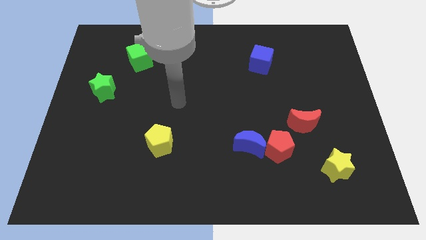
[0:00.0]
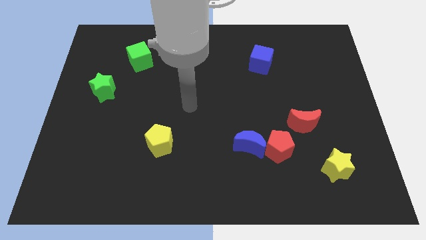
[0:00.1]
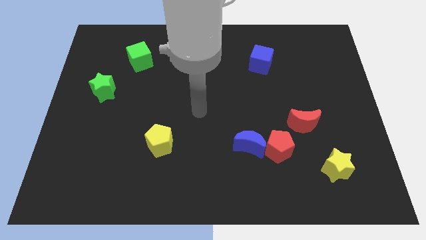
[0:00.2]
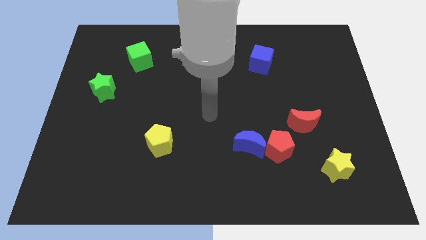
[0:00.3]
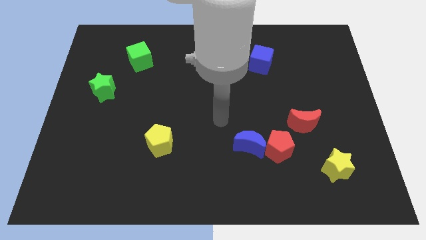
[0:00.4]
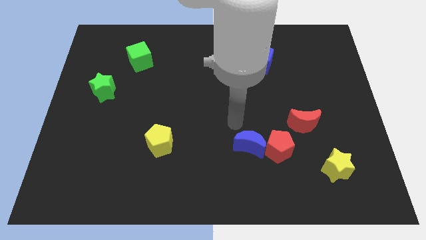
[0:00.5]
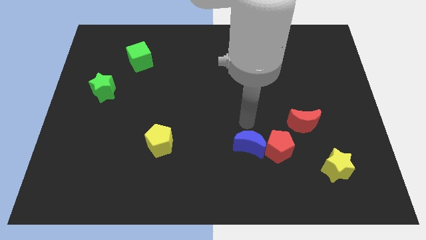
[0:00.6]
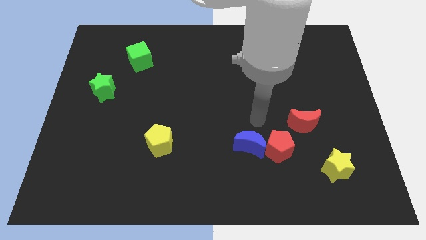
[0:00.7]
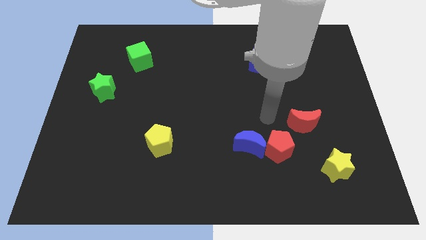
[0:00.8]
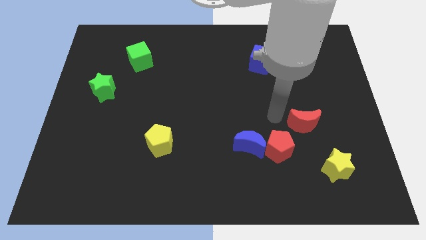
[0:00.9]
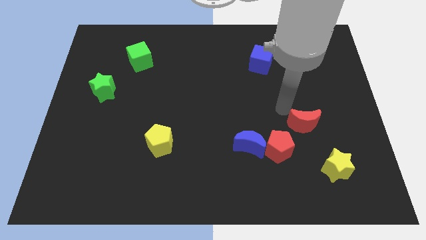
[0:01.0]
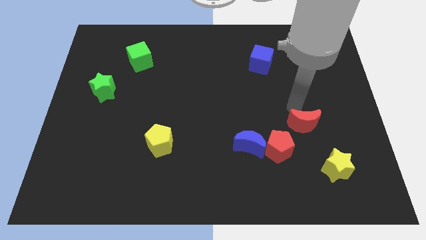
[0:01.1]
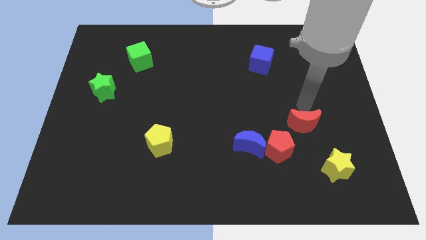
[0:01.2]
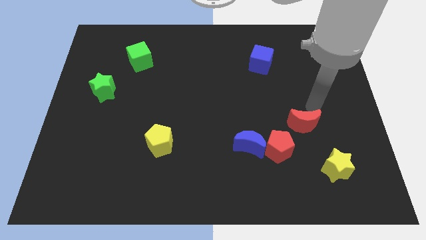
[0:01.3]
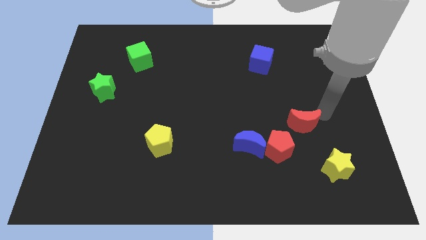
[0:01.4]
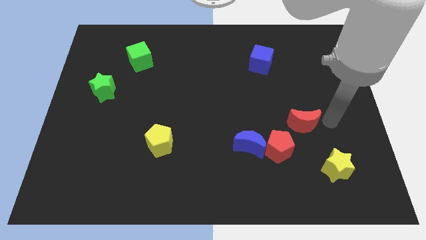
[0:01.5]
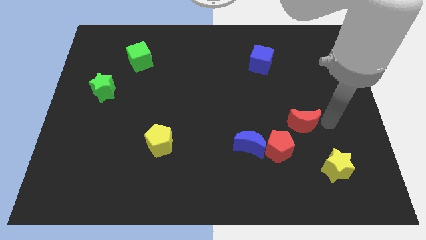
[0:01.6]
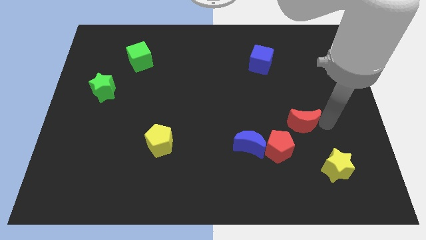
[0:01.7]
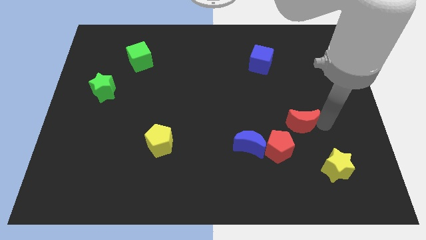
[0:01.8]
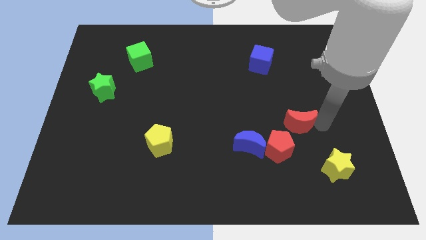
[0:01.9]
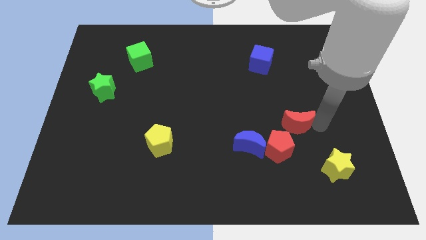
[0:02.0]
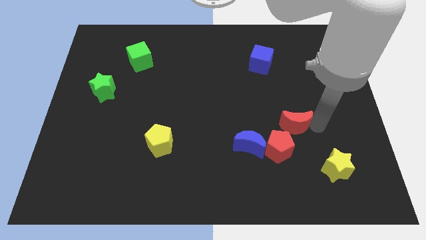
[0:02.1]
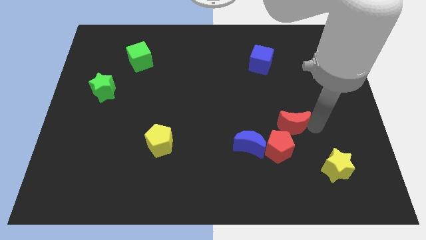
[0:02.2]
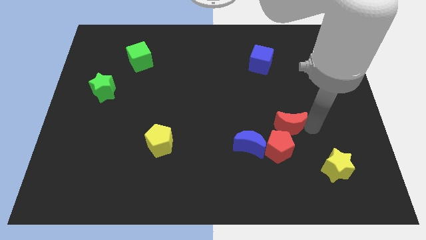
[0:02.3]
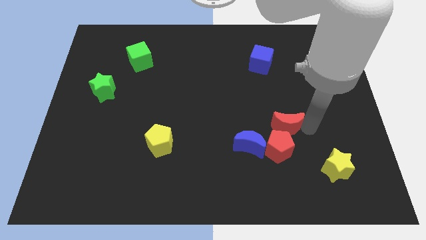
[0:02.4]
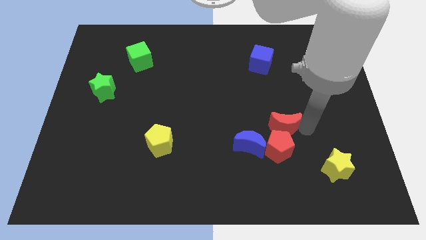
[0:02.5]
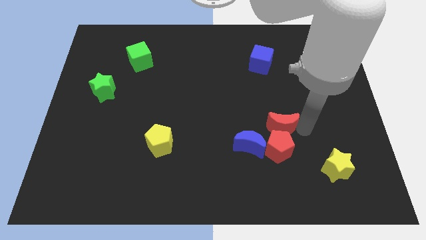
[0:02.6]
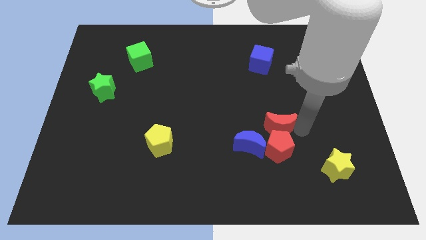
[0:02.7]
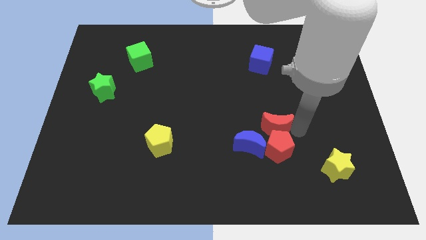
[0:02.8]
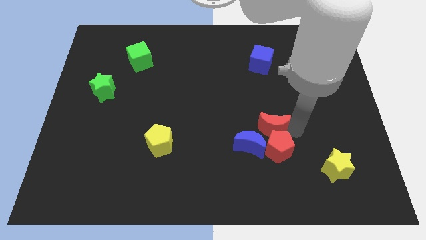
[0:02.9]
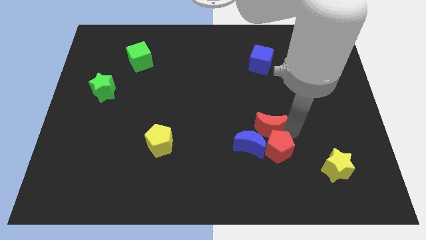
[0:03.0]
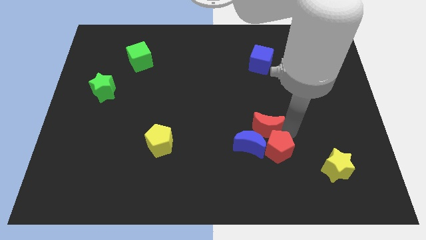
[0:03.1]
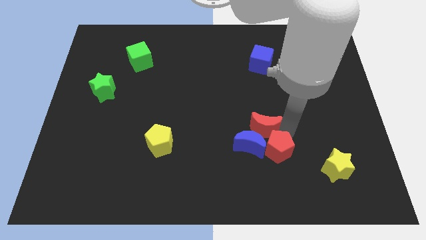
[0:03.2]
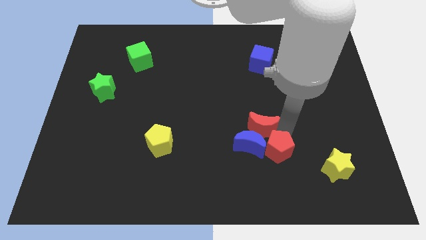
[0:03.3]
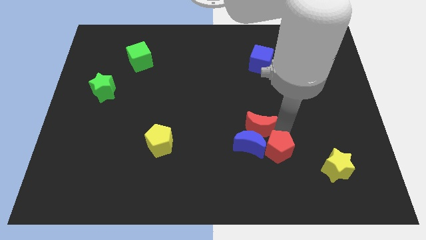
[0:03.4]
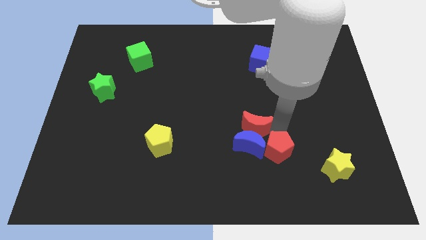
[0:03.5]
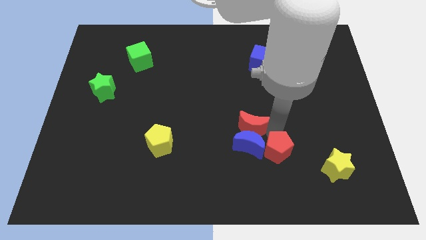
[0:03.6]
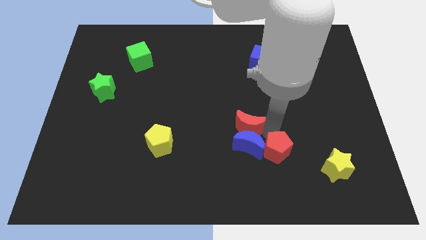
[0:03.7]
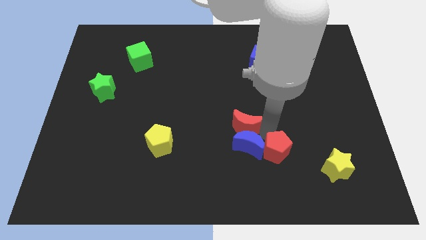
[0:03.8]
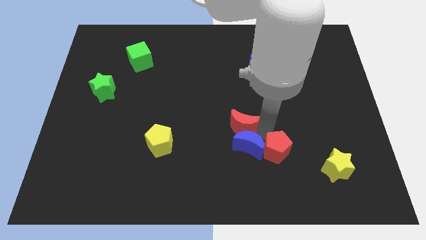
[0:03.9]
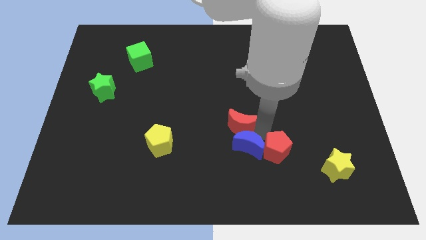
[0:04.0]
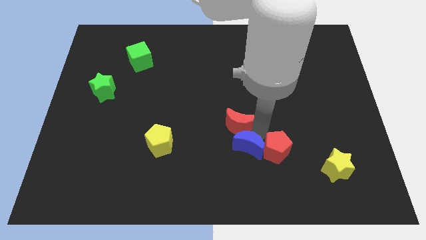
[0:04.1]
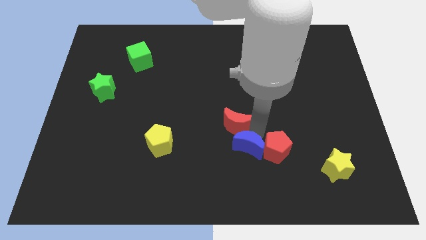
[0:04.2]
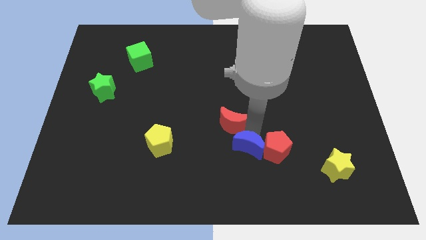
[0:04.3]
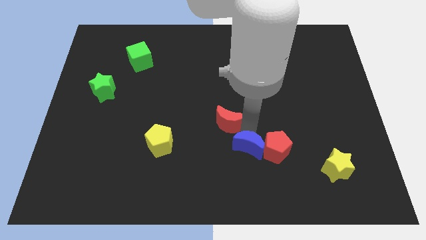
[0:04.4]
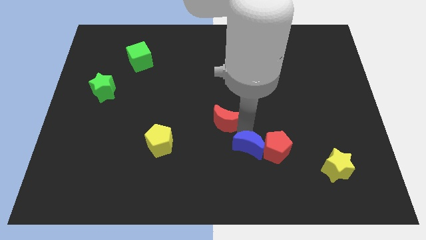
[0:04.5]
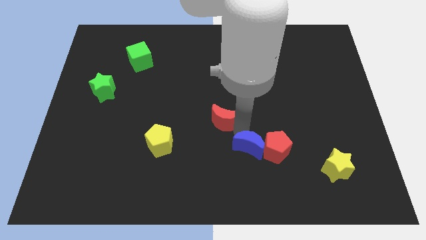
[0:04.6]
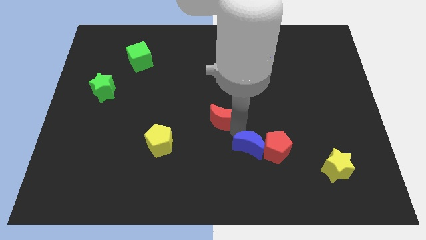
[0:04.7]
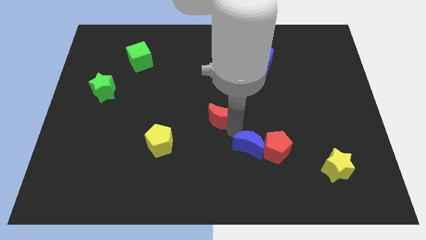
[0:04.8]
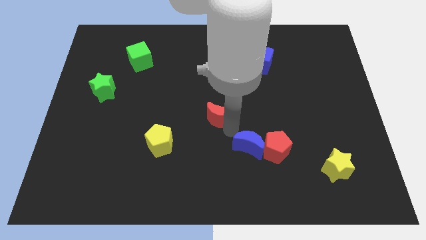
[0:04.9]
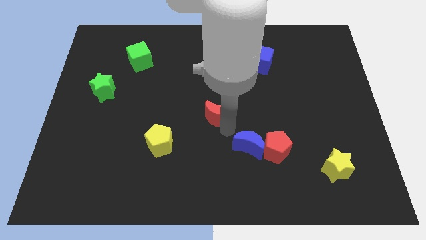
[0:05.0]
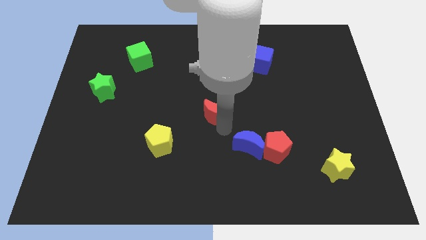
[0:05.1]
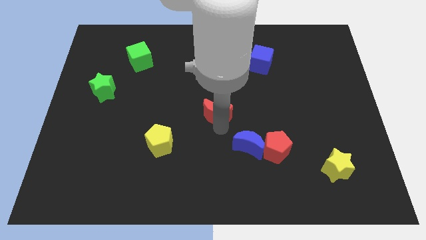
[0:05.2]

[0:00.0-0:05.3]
push the red moon to the left

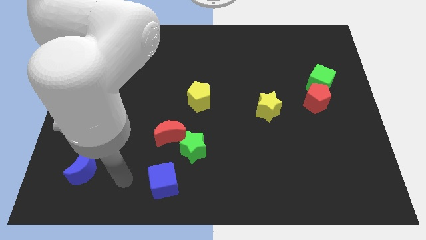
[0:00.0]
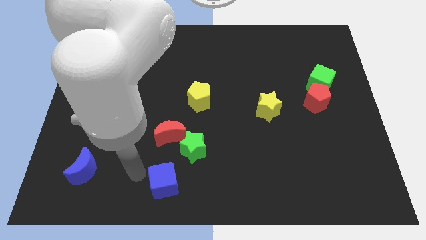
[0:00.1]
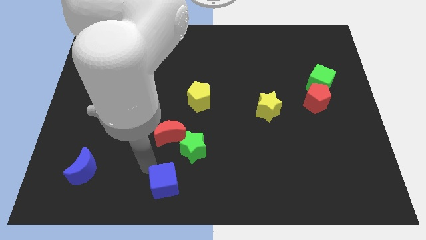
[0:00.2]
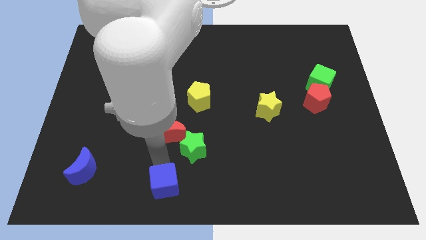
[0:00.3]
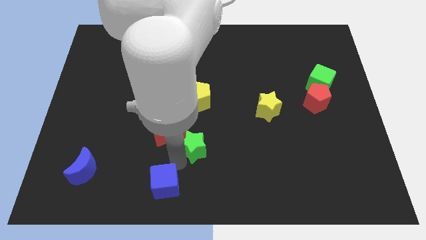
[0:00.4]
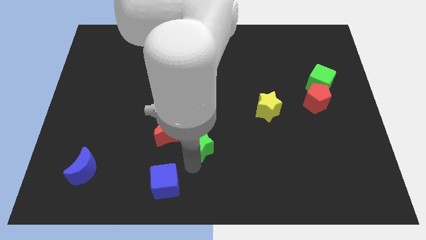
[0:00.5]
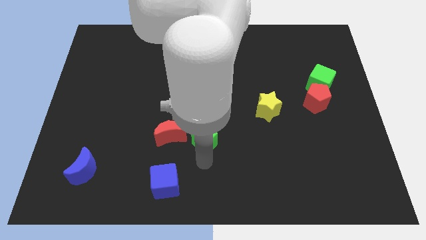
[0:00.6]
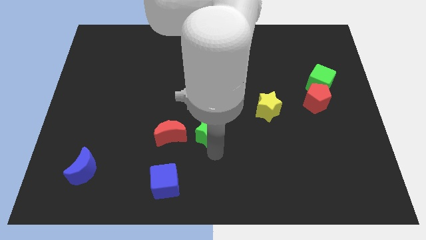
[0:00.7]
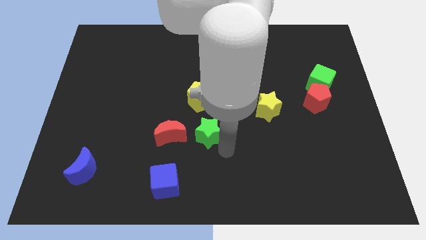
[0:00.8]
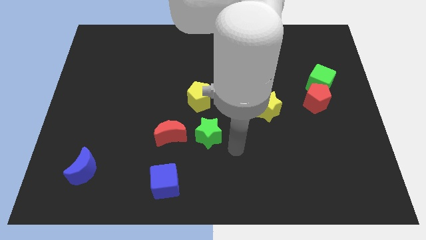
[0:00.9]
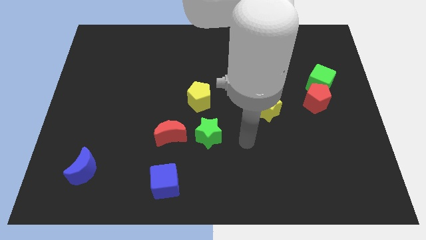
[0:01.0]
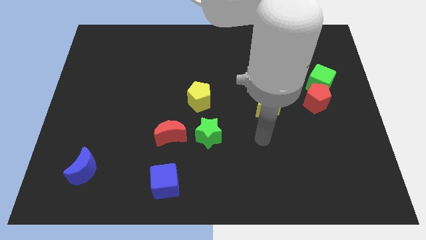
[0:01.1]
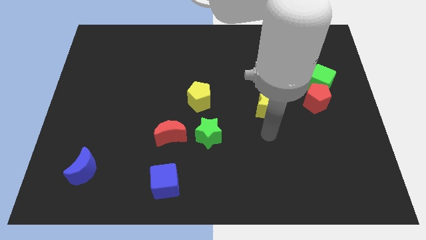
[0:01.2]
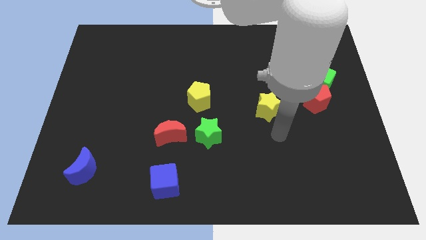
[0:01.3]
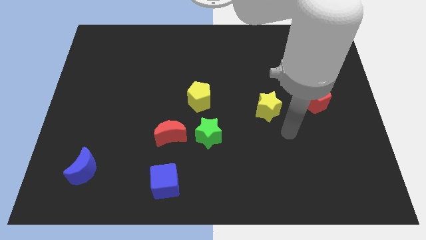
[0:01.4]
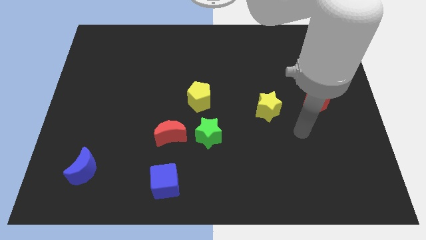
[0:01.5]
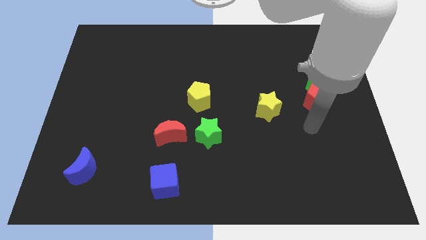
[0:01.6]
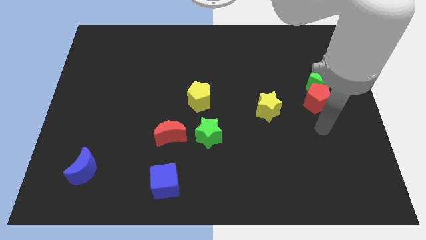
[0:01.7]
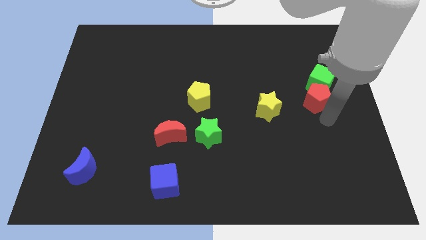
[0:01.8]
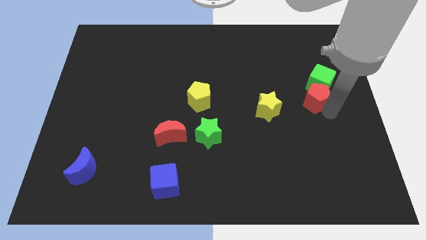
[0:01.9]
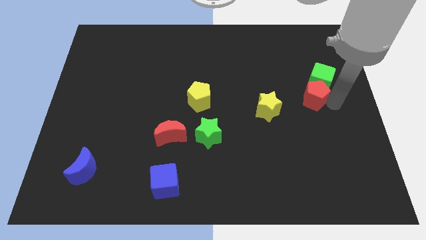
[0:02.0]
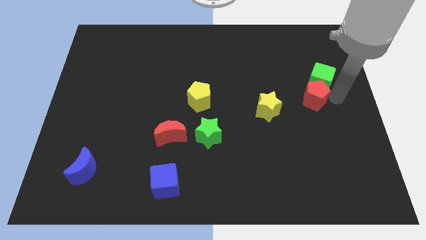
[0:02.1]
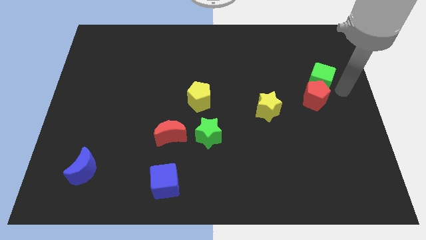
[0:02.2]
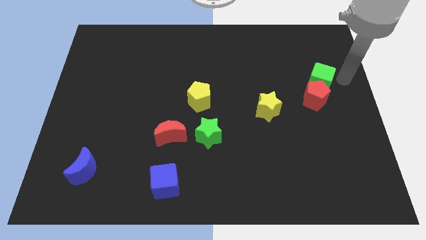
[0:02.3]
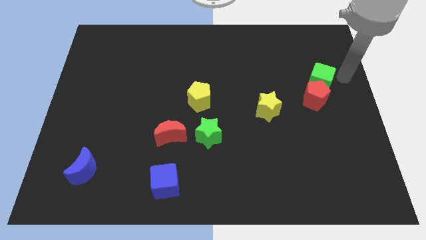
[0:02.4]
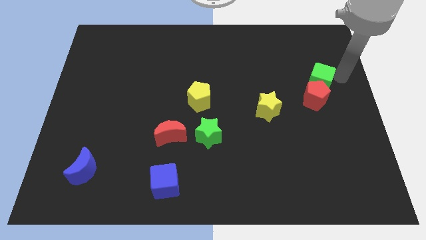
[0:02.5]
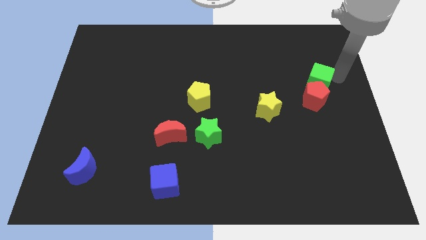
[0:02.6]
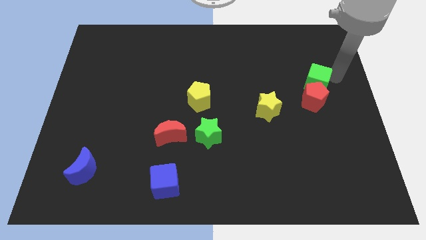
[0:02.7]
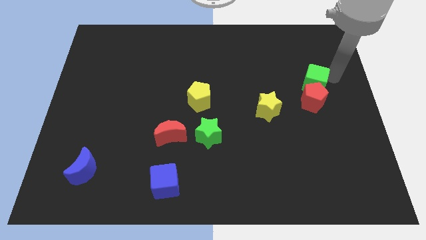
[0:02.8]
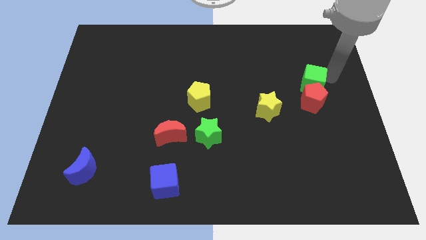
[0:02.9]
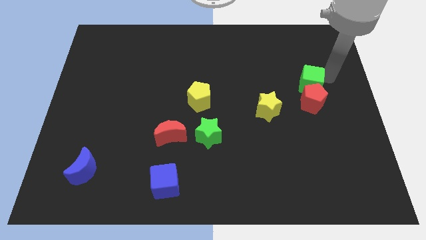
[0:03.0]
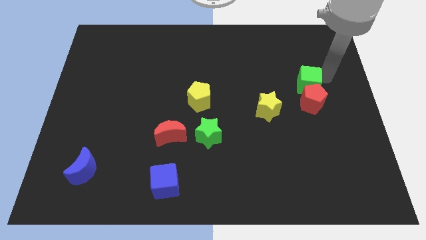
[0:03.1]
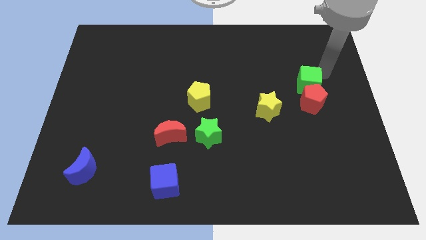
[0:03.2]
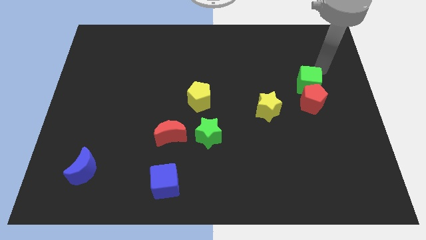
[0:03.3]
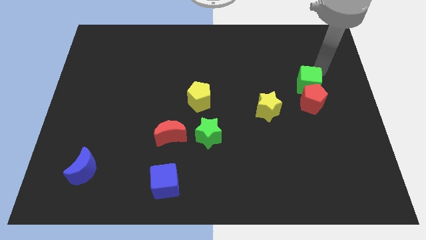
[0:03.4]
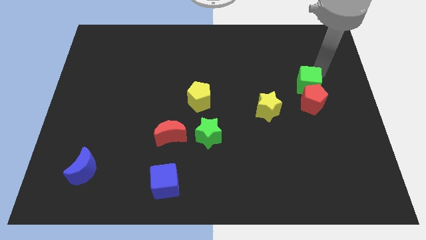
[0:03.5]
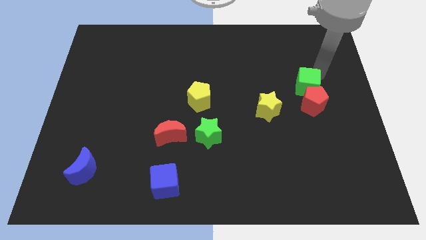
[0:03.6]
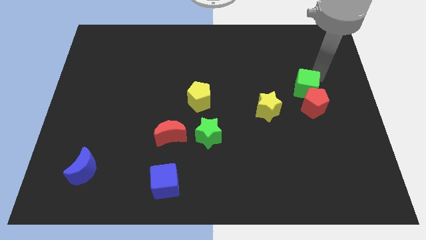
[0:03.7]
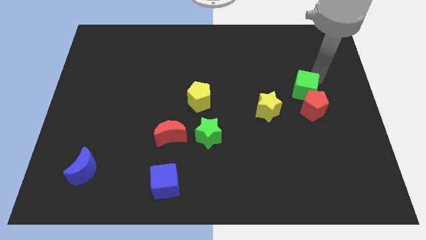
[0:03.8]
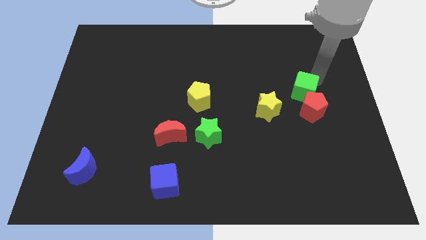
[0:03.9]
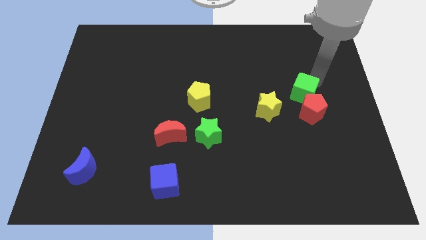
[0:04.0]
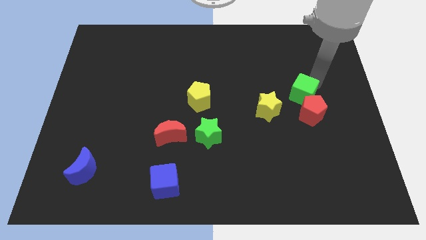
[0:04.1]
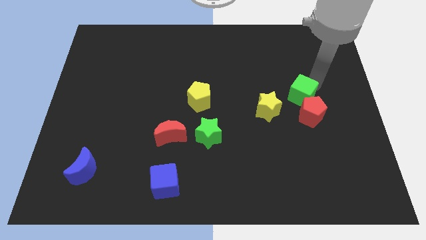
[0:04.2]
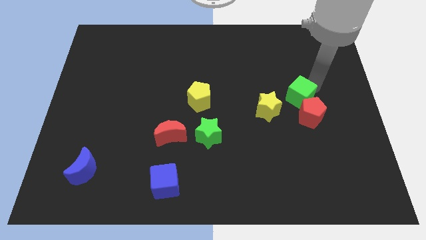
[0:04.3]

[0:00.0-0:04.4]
move the green cube a little down and to the left
